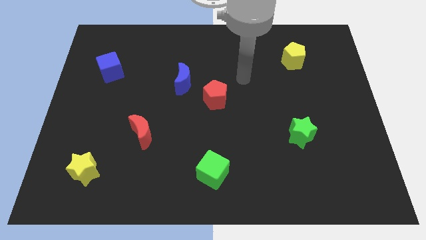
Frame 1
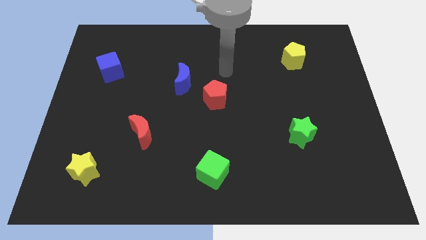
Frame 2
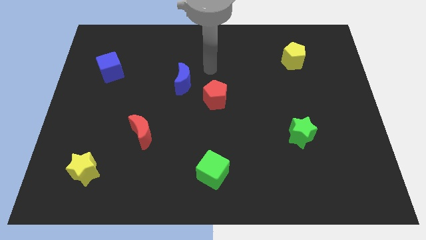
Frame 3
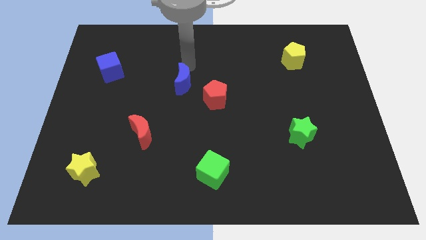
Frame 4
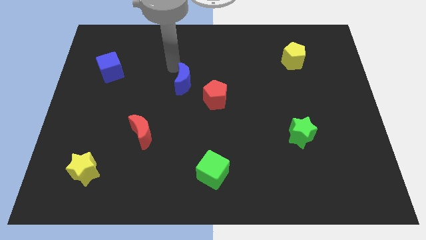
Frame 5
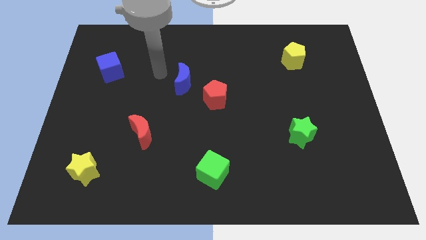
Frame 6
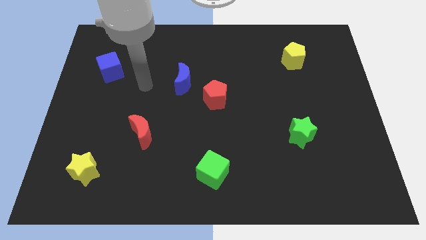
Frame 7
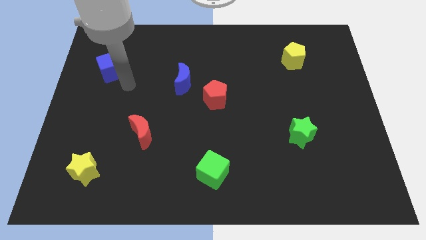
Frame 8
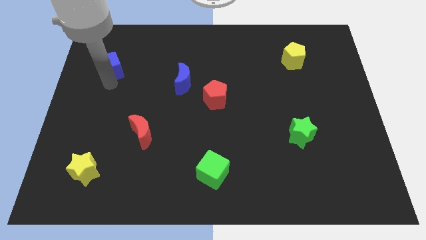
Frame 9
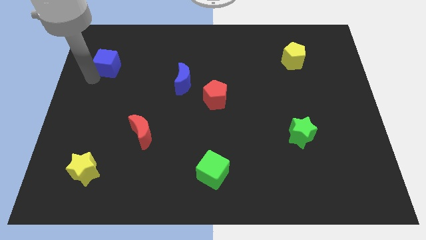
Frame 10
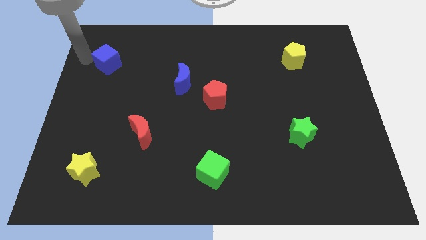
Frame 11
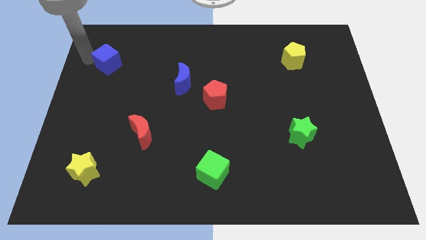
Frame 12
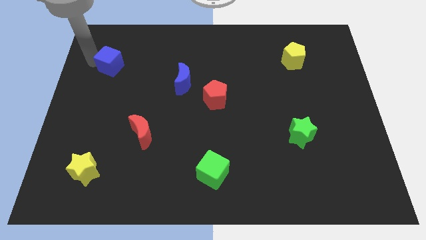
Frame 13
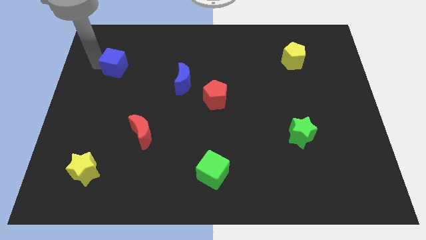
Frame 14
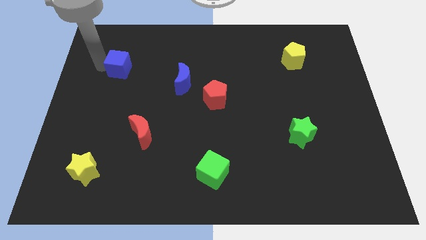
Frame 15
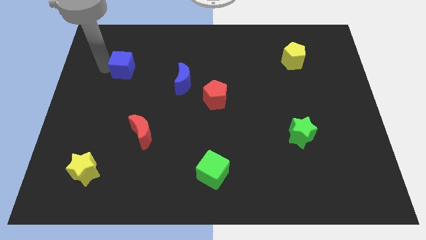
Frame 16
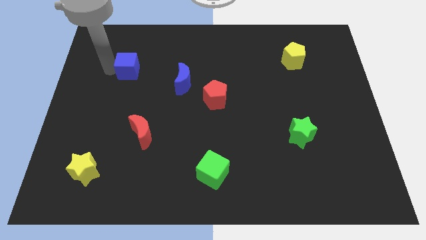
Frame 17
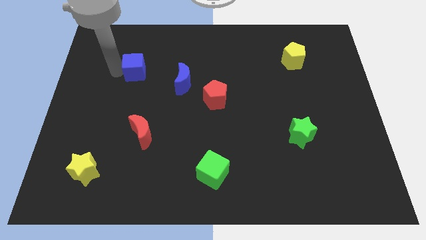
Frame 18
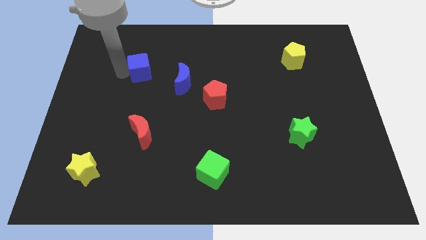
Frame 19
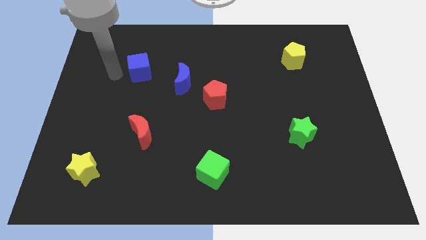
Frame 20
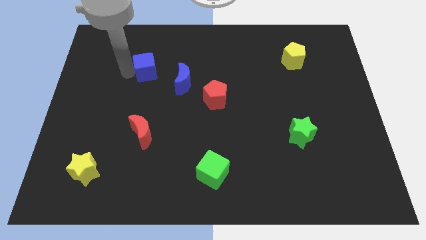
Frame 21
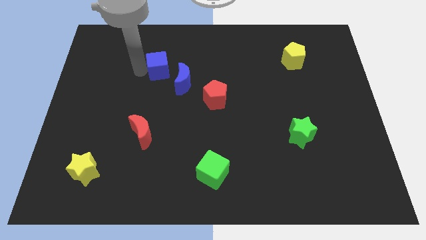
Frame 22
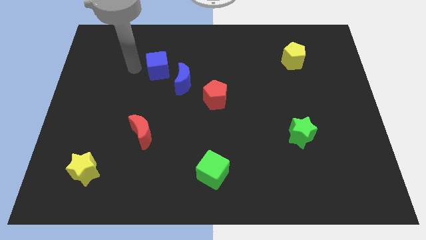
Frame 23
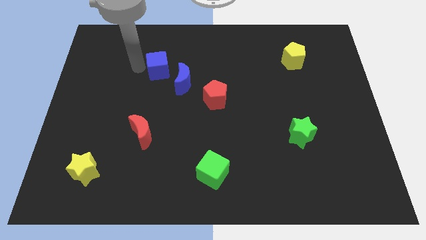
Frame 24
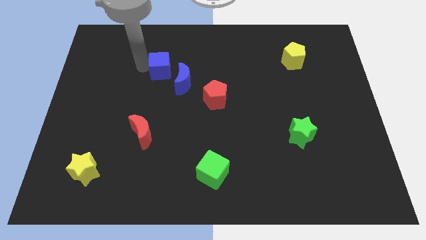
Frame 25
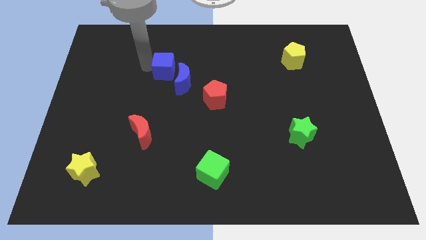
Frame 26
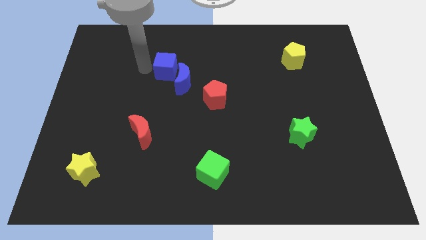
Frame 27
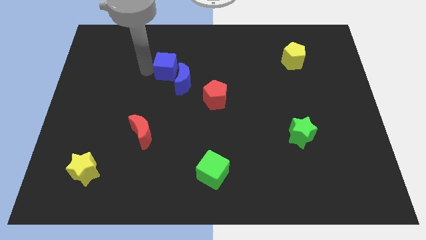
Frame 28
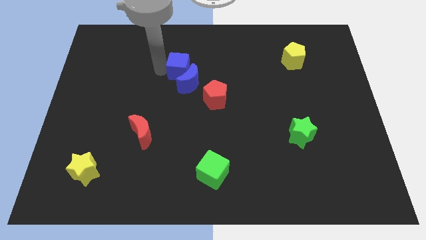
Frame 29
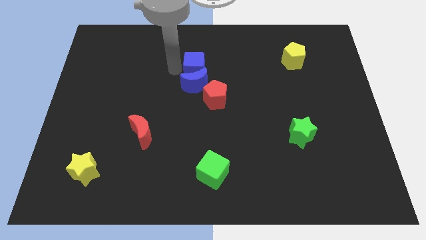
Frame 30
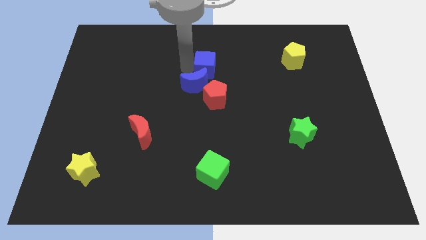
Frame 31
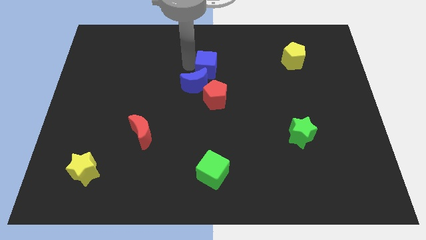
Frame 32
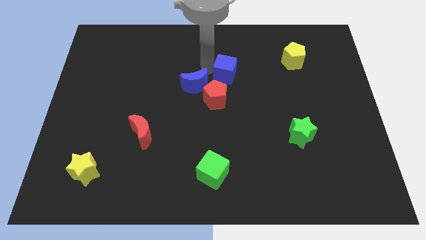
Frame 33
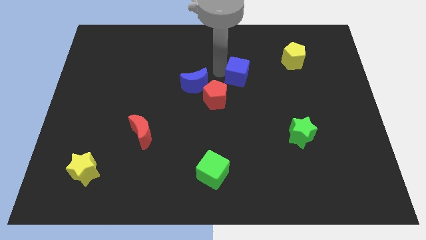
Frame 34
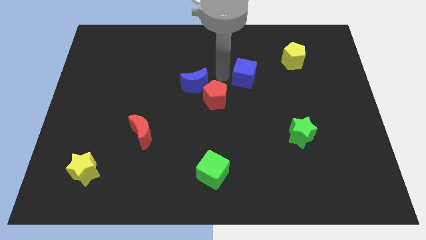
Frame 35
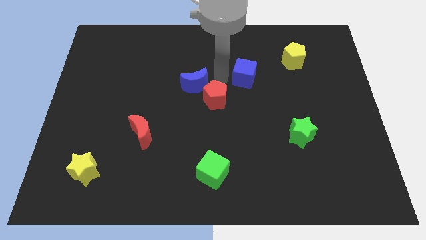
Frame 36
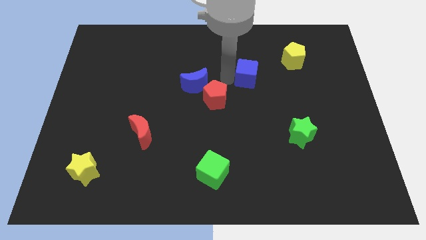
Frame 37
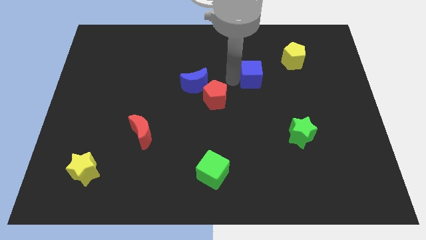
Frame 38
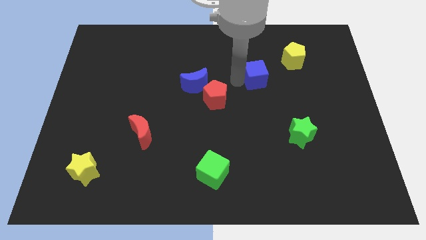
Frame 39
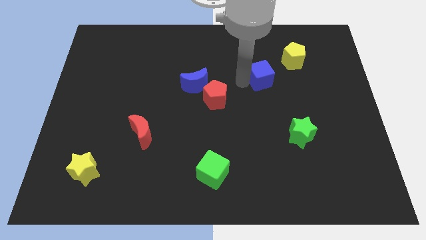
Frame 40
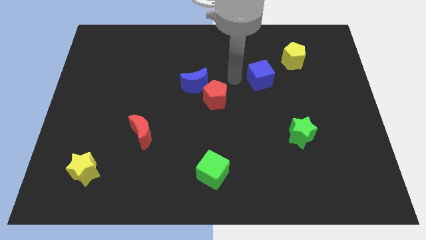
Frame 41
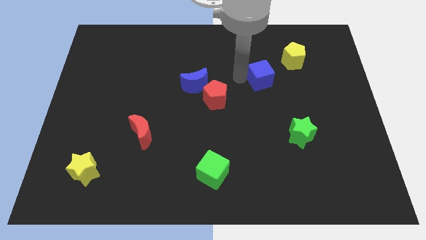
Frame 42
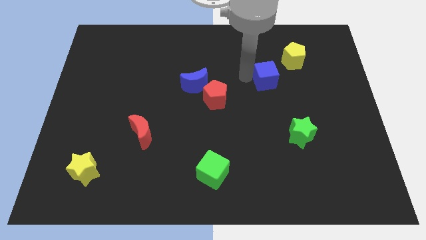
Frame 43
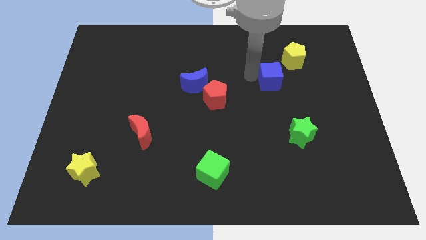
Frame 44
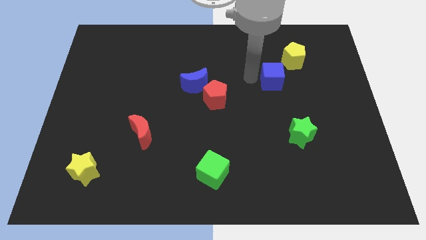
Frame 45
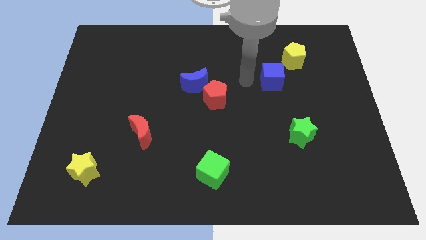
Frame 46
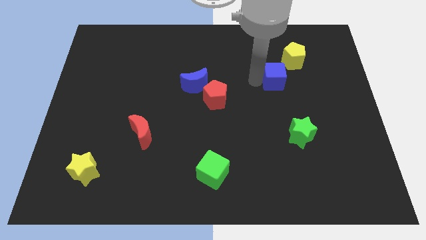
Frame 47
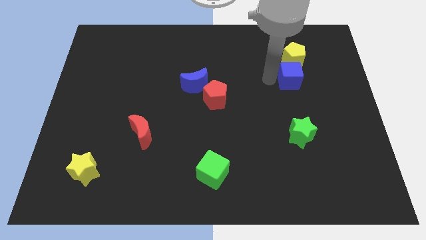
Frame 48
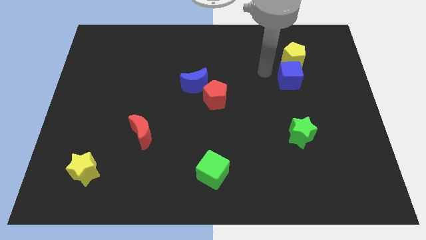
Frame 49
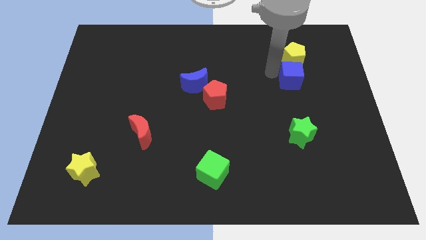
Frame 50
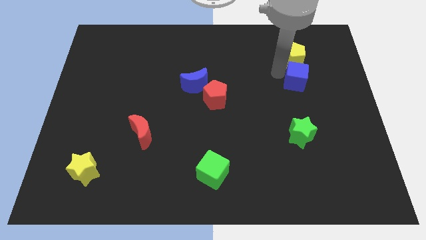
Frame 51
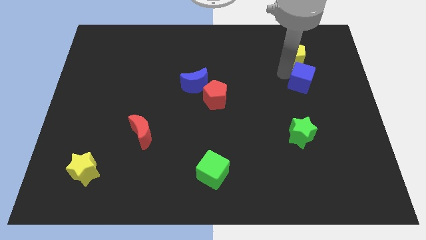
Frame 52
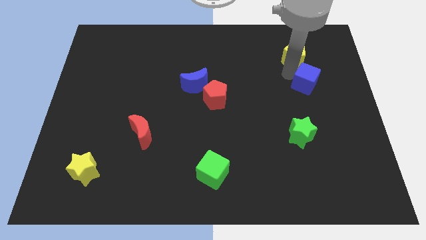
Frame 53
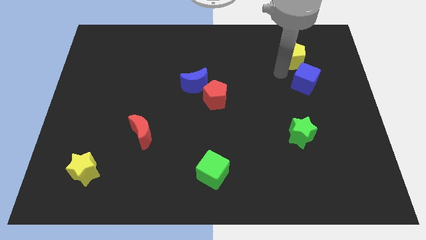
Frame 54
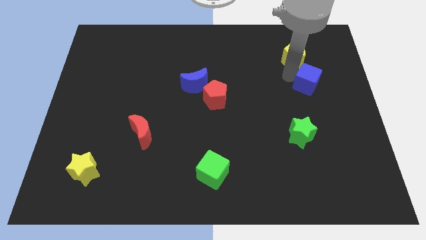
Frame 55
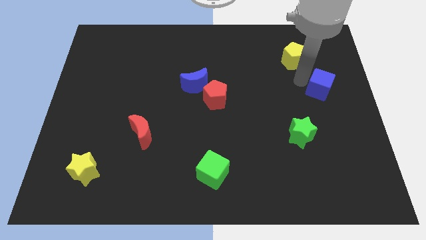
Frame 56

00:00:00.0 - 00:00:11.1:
move the blue cube to the right side

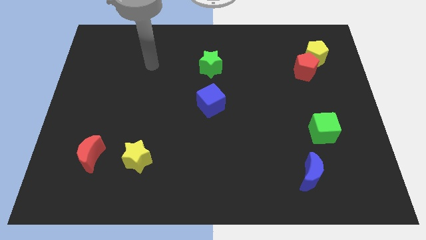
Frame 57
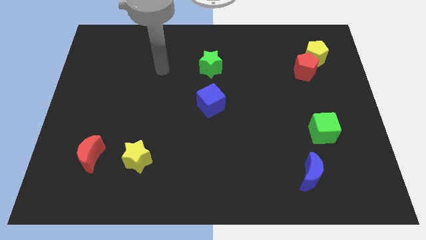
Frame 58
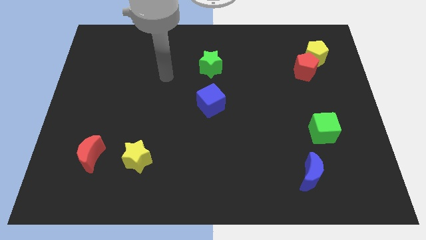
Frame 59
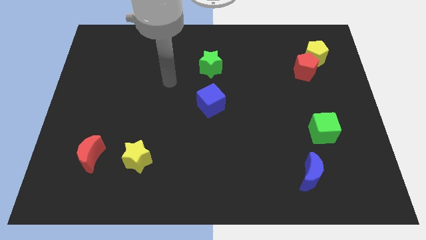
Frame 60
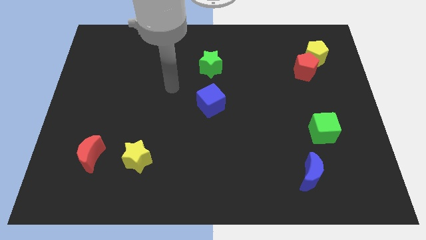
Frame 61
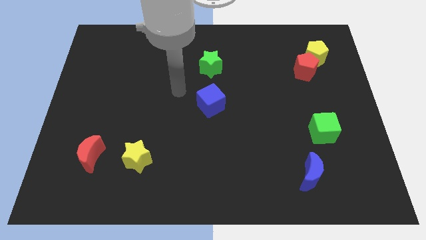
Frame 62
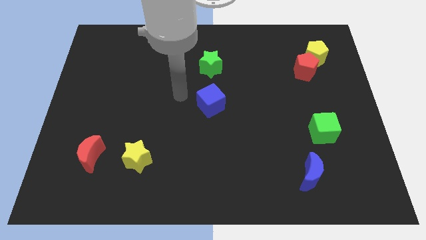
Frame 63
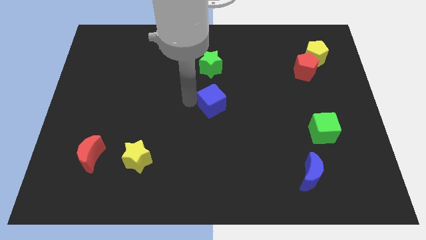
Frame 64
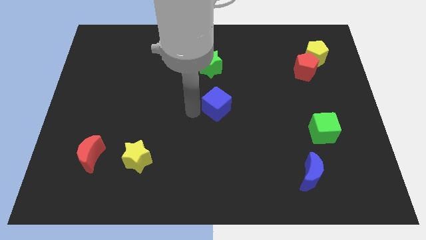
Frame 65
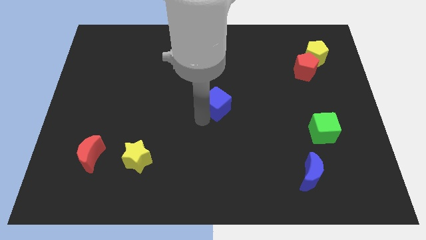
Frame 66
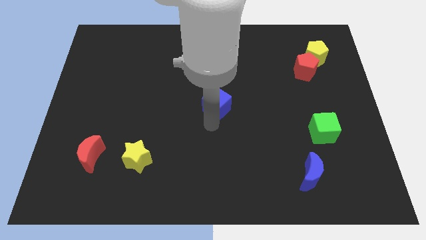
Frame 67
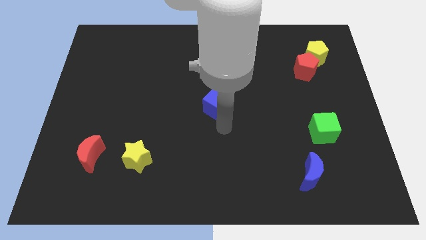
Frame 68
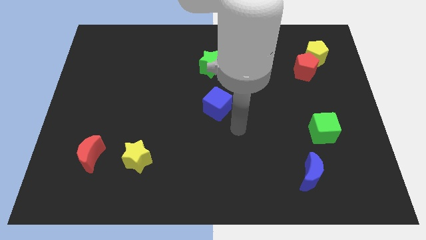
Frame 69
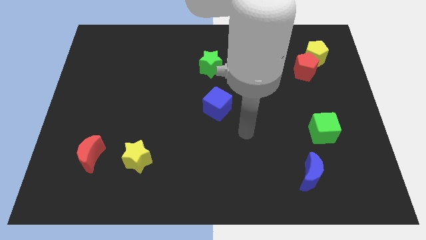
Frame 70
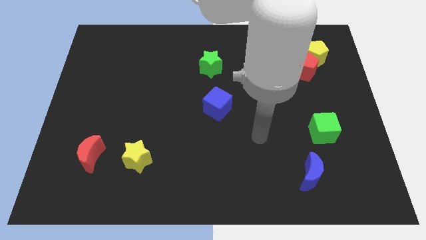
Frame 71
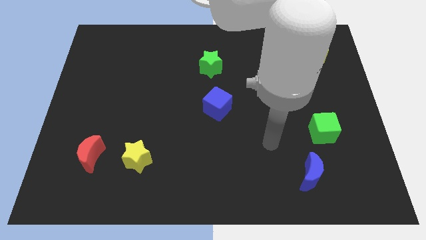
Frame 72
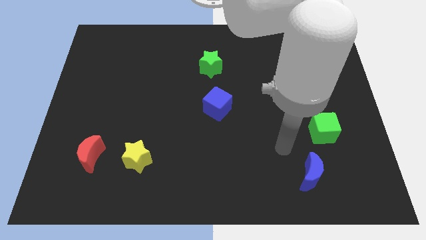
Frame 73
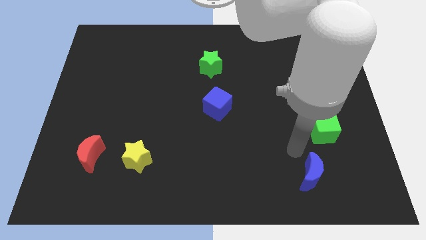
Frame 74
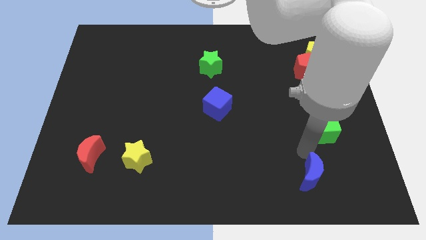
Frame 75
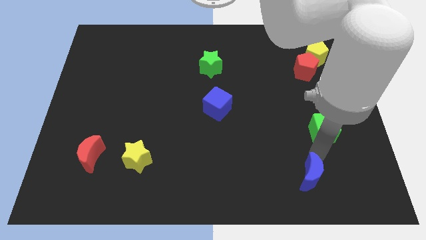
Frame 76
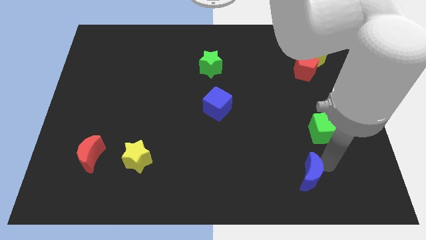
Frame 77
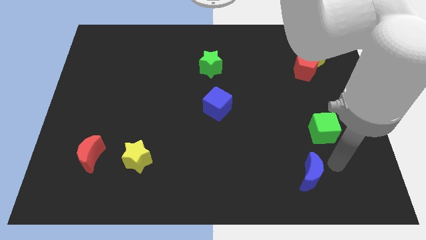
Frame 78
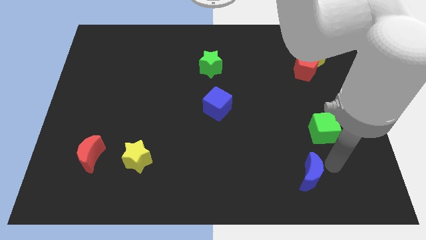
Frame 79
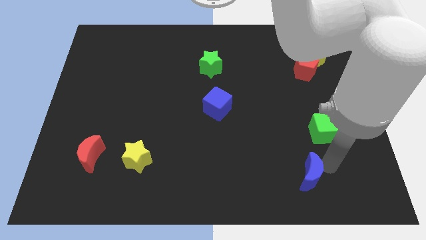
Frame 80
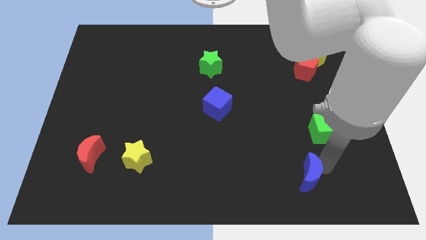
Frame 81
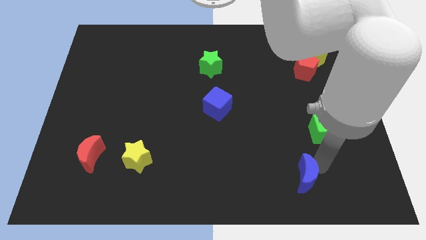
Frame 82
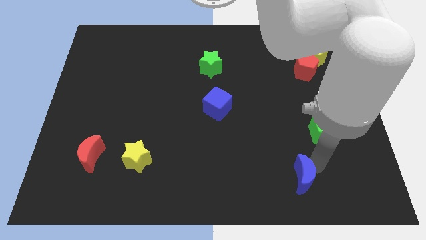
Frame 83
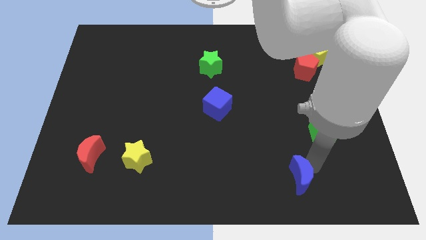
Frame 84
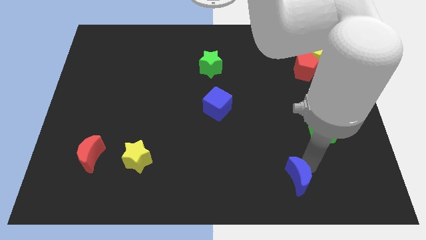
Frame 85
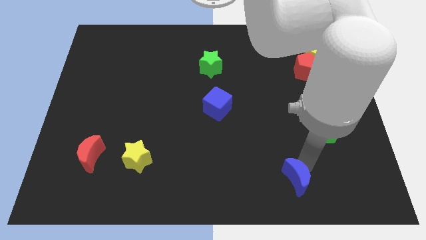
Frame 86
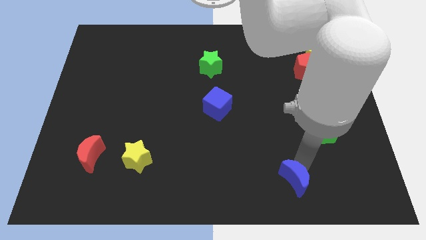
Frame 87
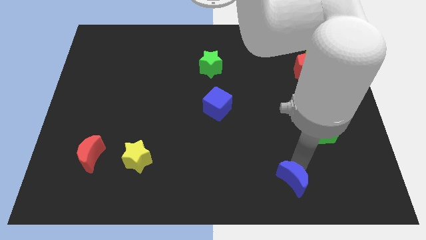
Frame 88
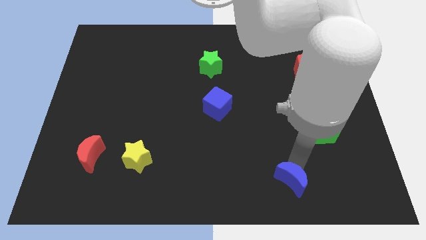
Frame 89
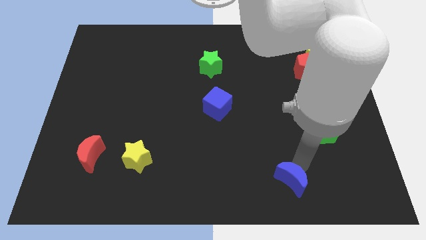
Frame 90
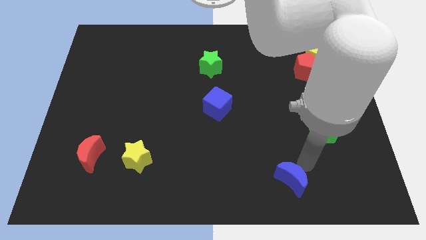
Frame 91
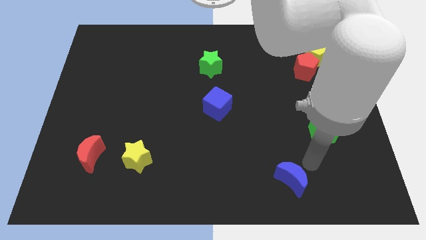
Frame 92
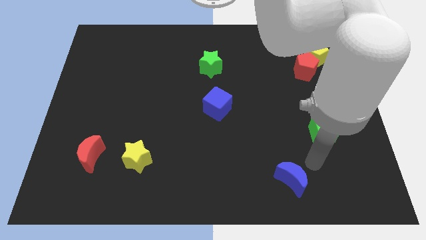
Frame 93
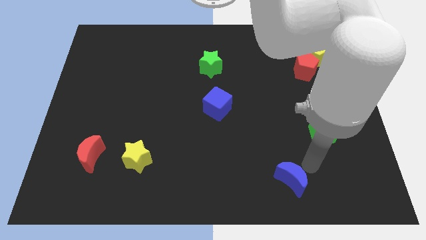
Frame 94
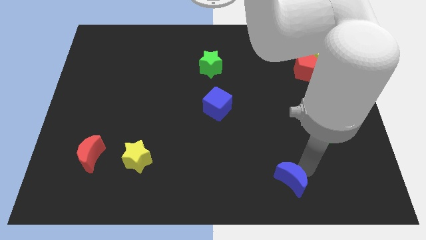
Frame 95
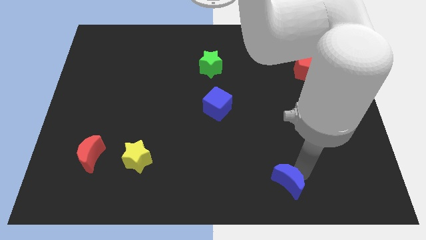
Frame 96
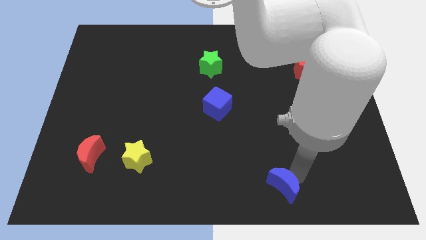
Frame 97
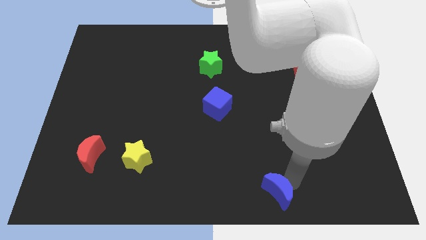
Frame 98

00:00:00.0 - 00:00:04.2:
move the blue moon to the bottom side
